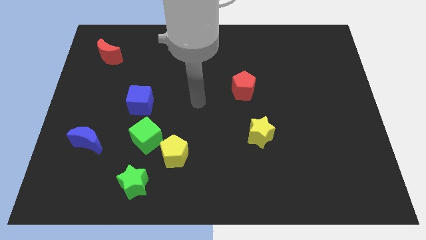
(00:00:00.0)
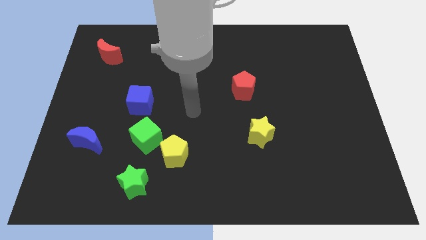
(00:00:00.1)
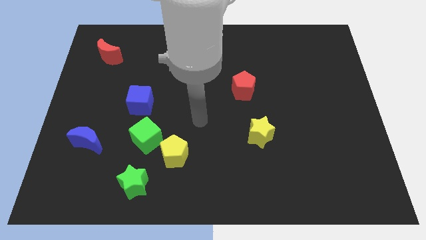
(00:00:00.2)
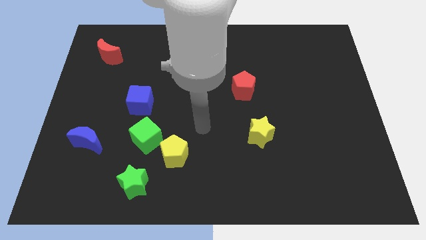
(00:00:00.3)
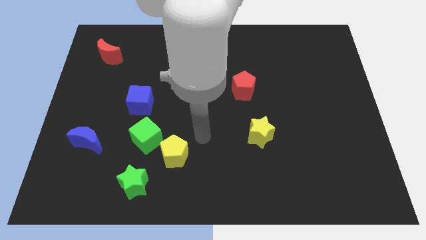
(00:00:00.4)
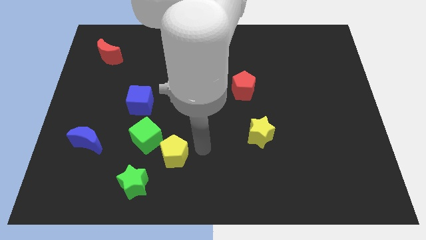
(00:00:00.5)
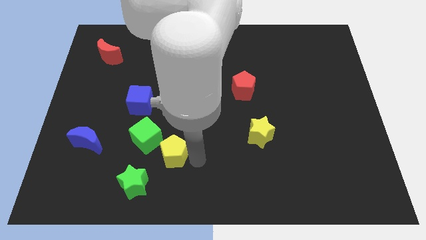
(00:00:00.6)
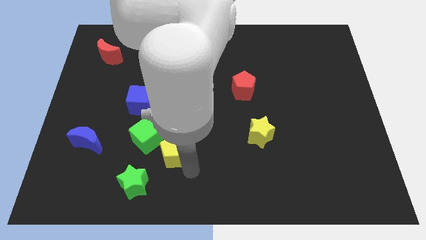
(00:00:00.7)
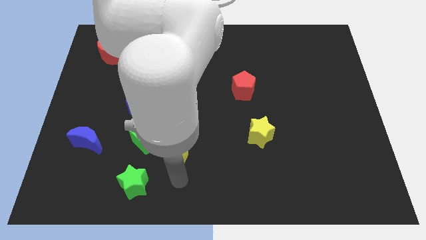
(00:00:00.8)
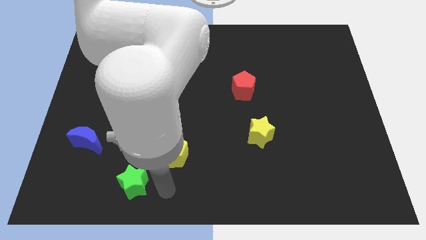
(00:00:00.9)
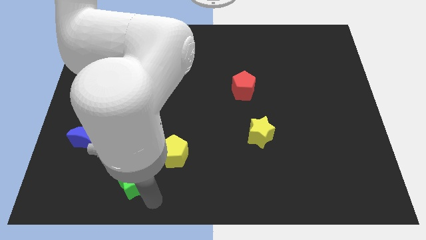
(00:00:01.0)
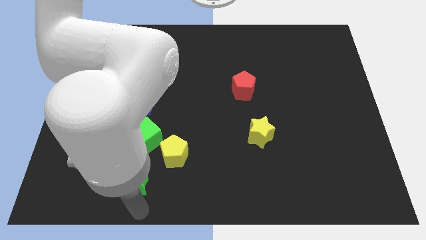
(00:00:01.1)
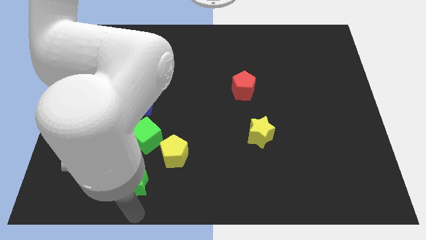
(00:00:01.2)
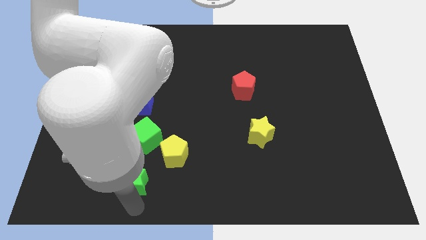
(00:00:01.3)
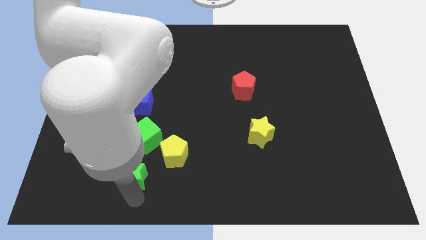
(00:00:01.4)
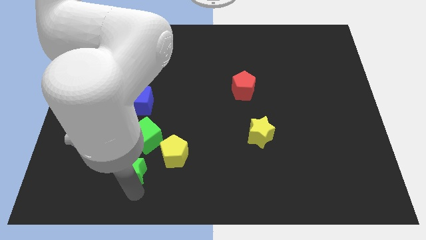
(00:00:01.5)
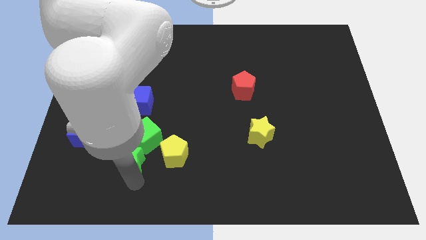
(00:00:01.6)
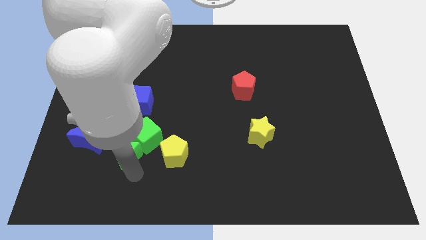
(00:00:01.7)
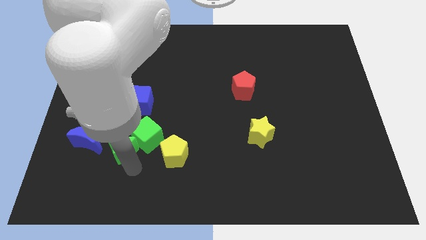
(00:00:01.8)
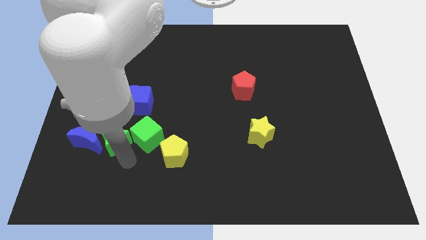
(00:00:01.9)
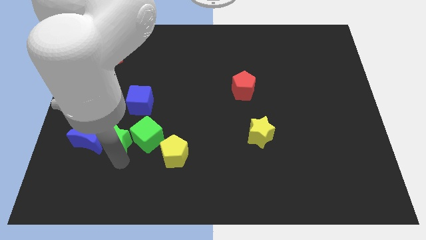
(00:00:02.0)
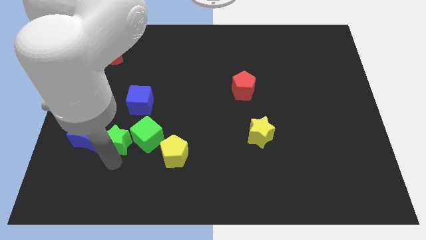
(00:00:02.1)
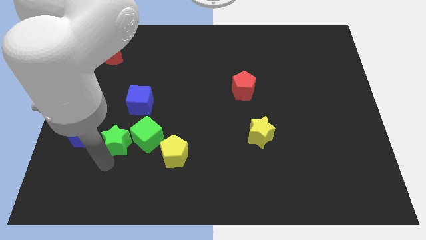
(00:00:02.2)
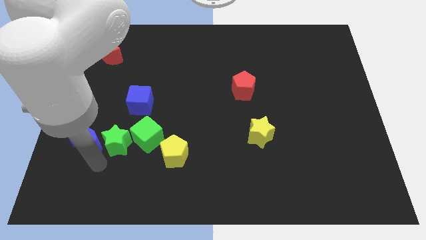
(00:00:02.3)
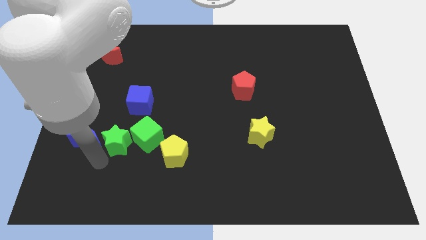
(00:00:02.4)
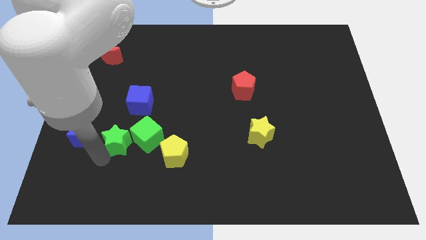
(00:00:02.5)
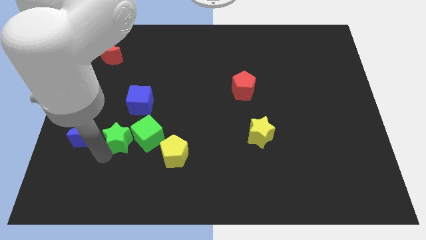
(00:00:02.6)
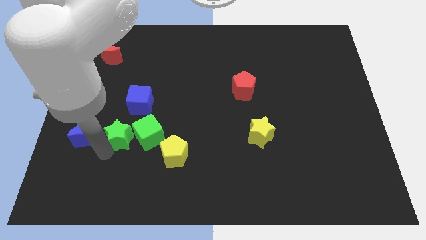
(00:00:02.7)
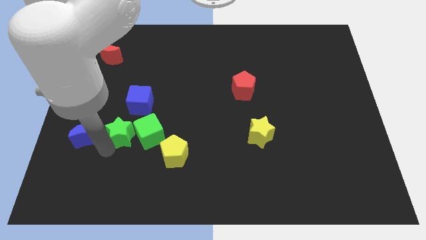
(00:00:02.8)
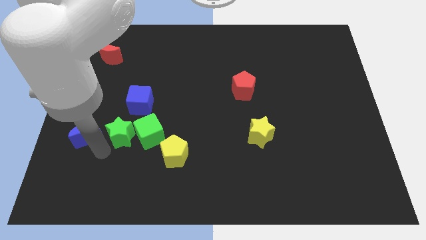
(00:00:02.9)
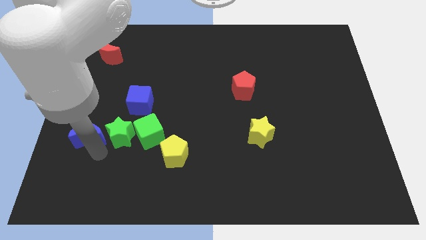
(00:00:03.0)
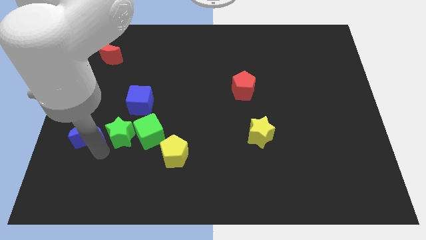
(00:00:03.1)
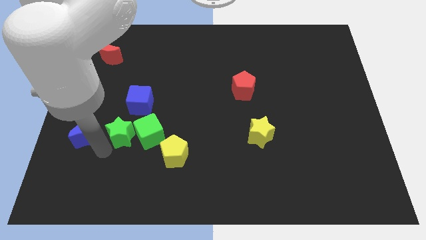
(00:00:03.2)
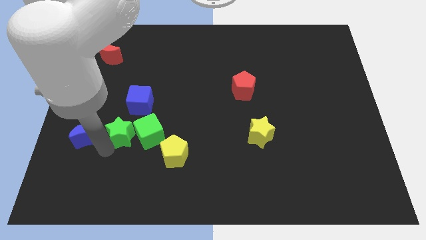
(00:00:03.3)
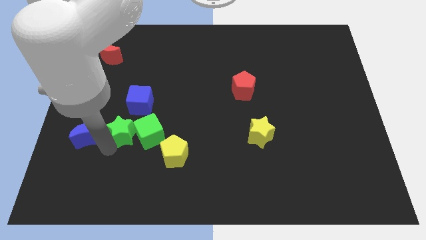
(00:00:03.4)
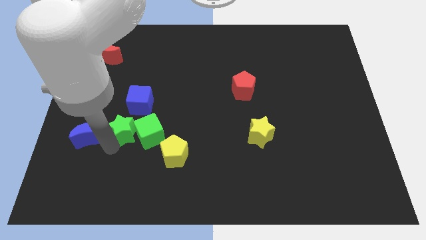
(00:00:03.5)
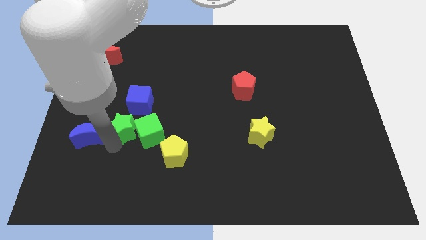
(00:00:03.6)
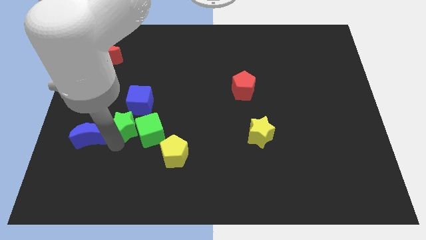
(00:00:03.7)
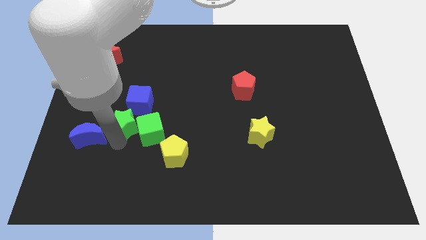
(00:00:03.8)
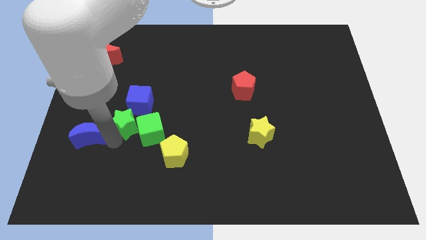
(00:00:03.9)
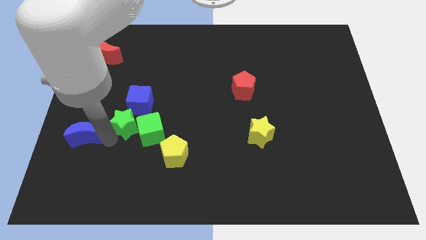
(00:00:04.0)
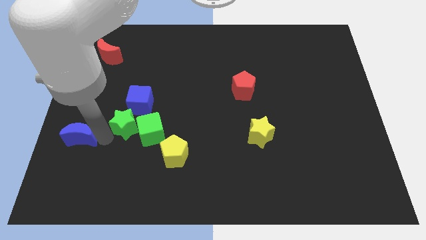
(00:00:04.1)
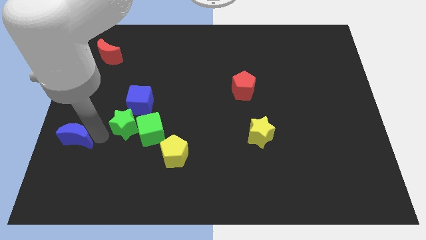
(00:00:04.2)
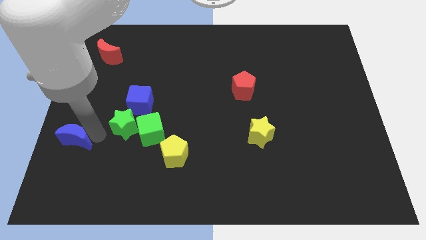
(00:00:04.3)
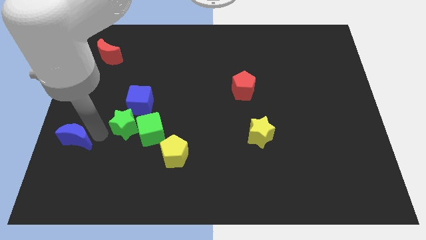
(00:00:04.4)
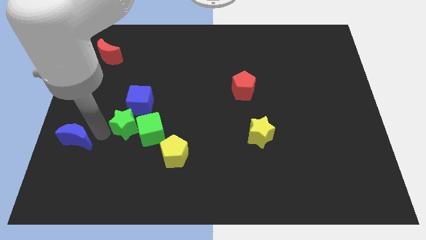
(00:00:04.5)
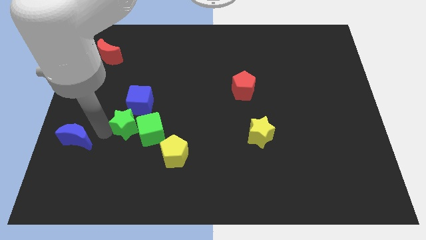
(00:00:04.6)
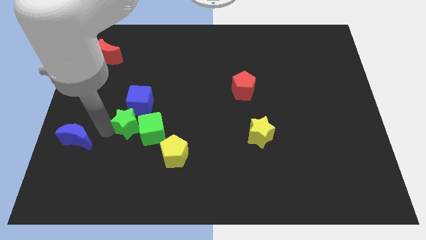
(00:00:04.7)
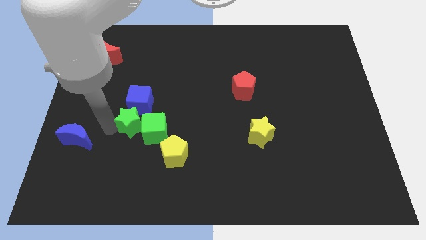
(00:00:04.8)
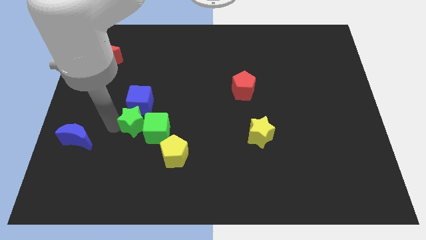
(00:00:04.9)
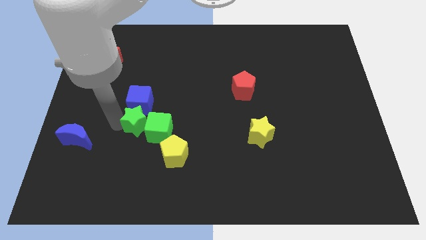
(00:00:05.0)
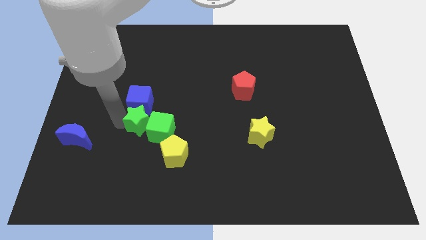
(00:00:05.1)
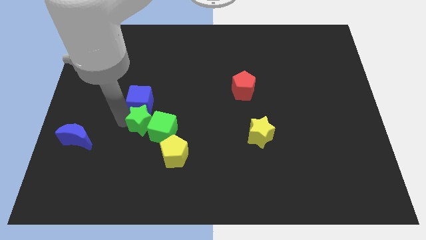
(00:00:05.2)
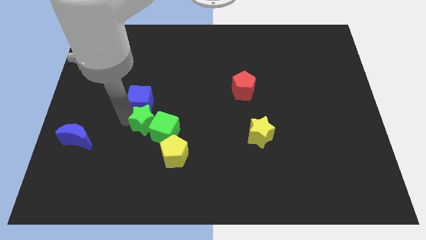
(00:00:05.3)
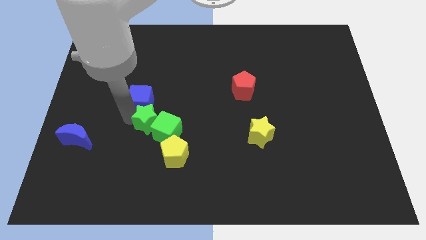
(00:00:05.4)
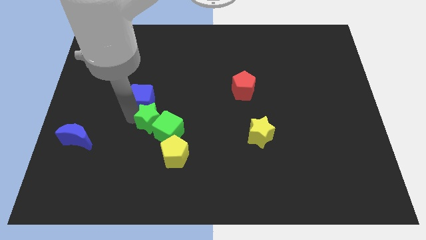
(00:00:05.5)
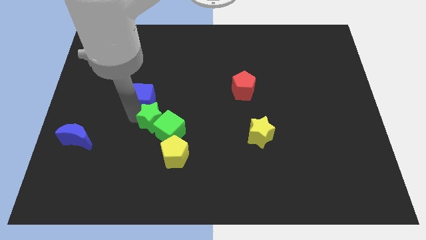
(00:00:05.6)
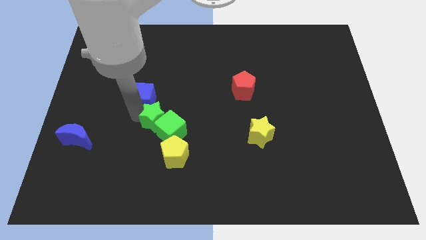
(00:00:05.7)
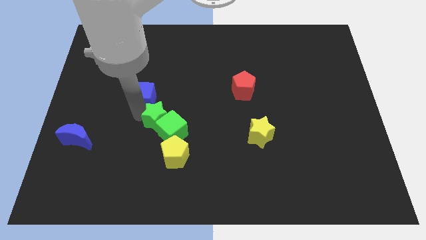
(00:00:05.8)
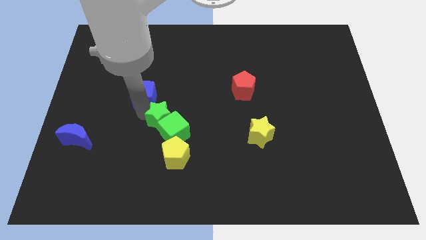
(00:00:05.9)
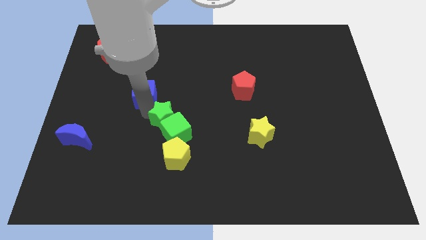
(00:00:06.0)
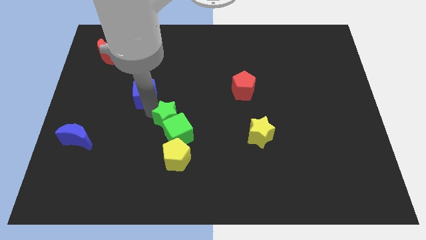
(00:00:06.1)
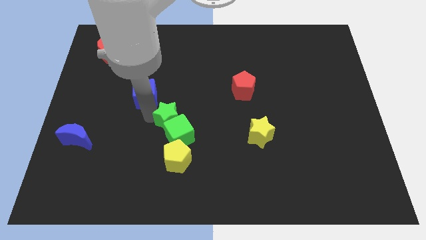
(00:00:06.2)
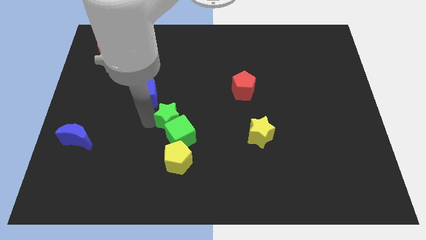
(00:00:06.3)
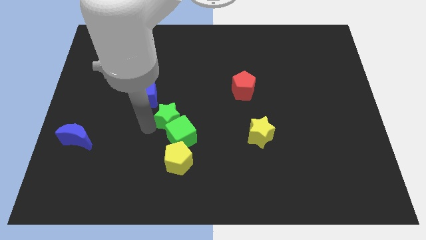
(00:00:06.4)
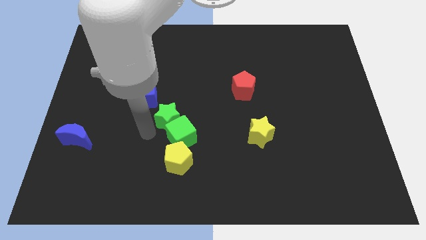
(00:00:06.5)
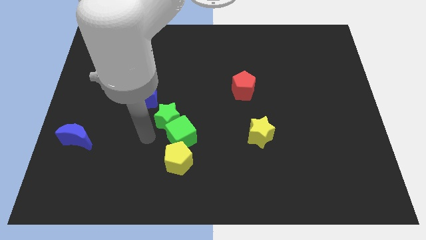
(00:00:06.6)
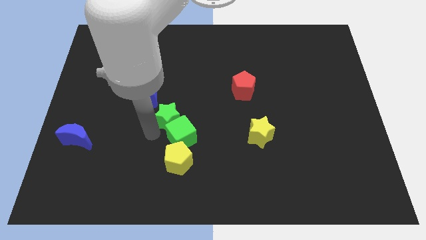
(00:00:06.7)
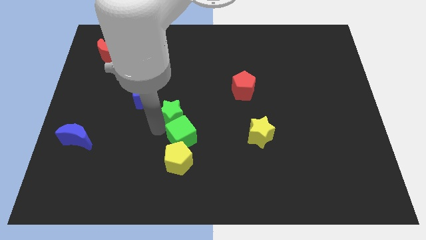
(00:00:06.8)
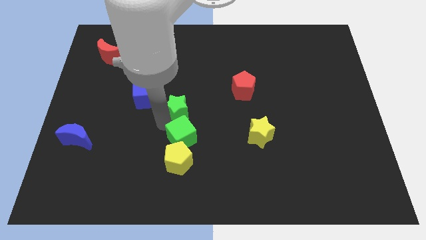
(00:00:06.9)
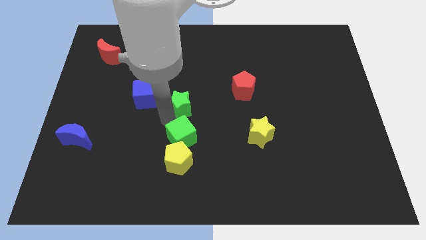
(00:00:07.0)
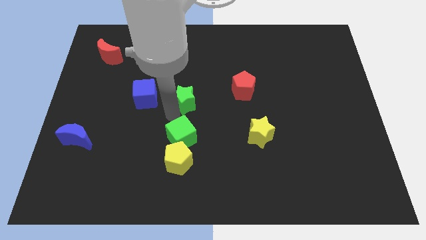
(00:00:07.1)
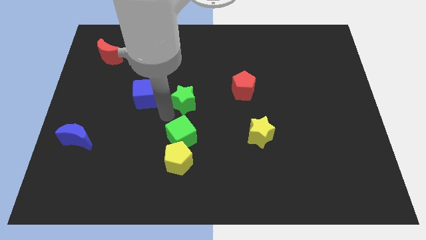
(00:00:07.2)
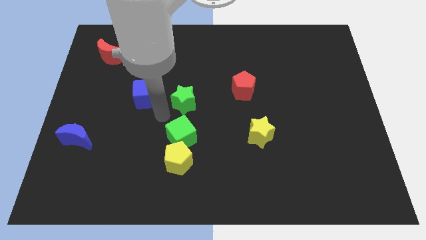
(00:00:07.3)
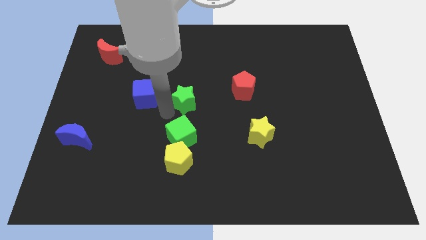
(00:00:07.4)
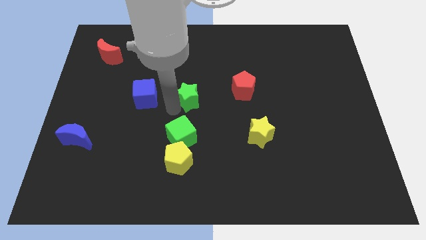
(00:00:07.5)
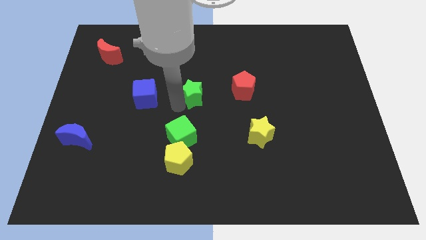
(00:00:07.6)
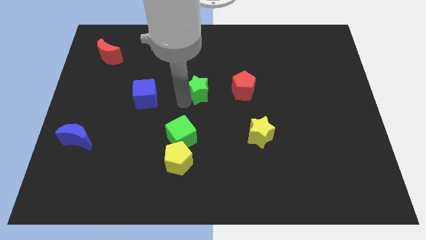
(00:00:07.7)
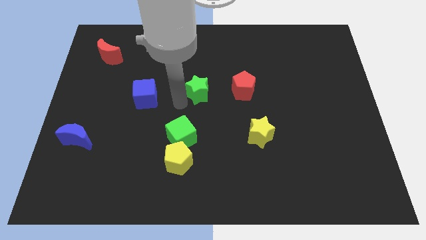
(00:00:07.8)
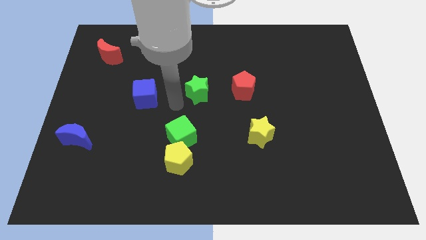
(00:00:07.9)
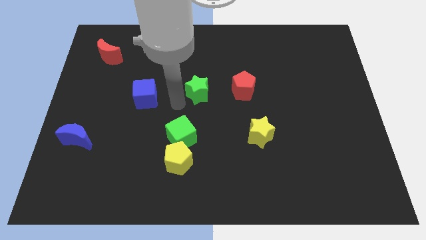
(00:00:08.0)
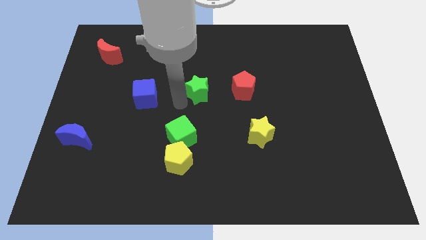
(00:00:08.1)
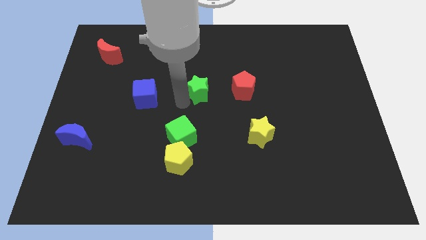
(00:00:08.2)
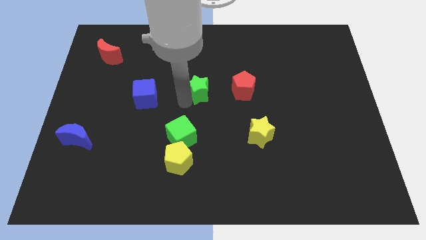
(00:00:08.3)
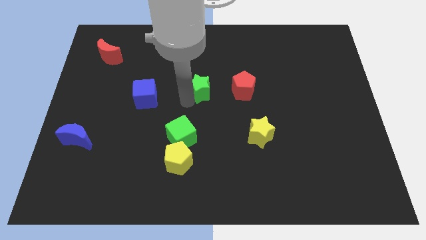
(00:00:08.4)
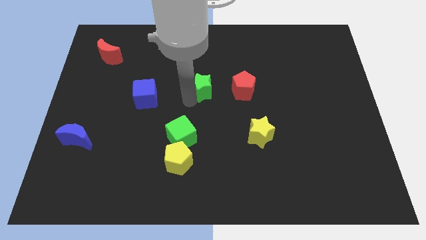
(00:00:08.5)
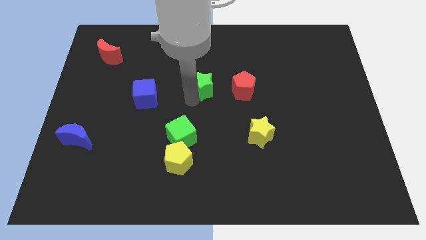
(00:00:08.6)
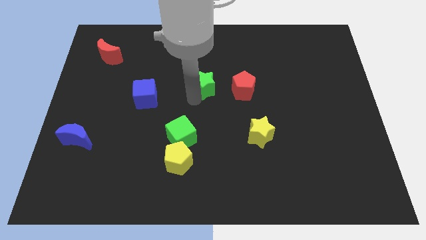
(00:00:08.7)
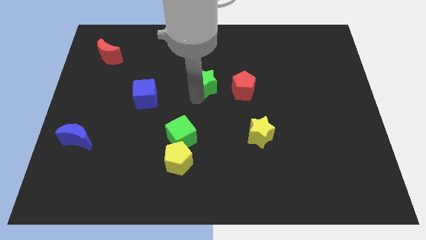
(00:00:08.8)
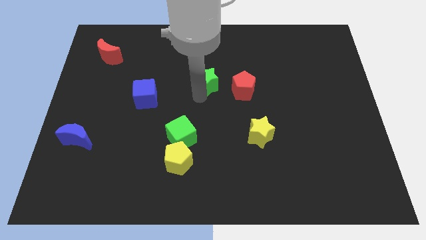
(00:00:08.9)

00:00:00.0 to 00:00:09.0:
slide the green star diagonally up and to the left of the red pentagon
